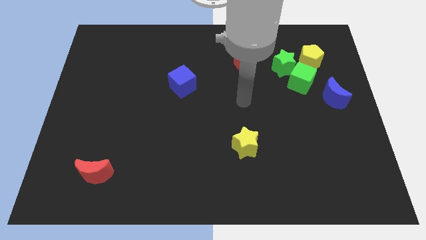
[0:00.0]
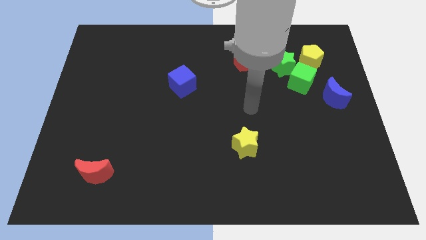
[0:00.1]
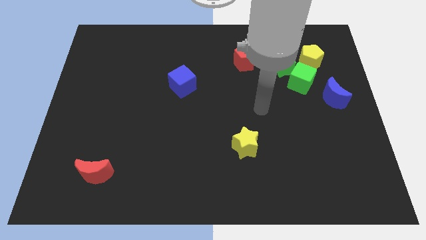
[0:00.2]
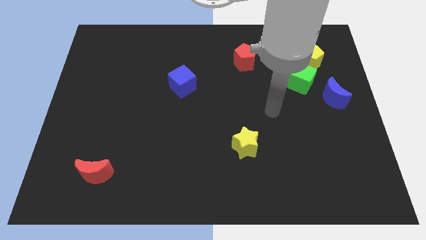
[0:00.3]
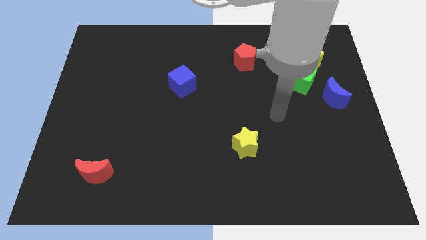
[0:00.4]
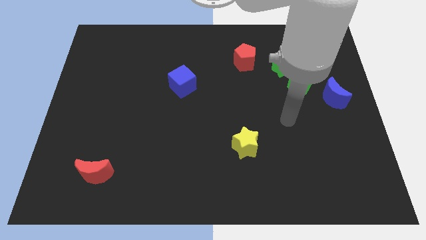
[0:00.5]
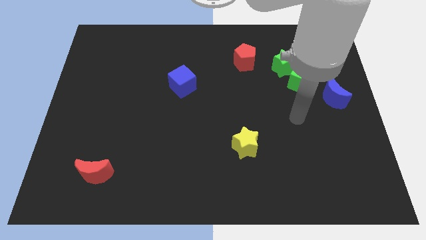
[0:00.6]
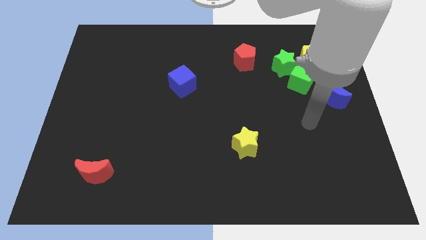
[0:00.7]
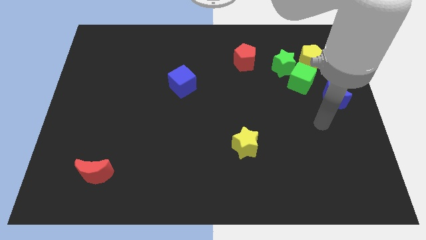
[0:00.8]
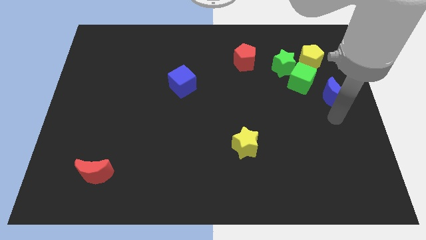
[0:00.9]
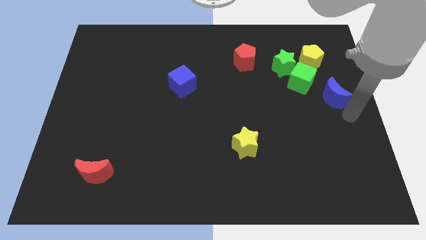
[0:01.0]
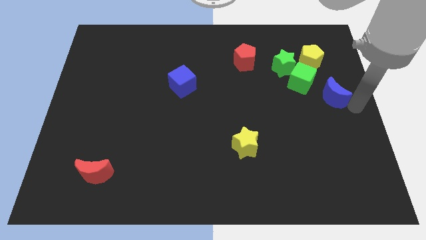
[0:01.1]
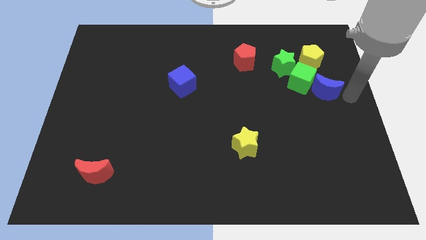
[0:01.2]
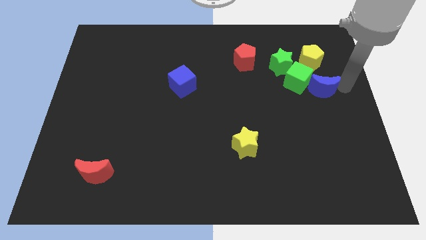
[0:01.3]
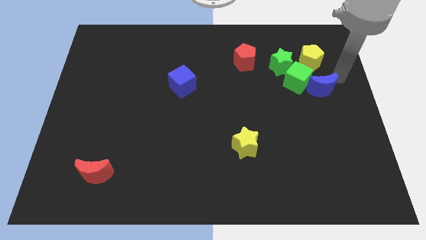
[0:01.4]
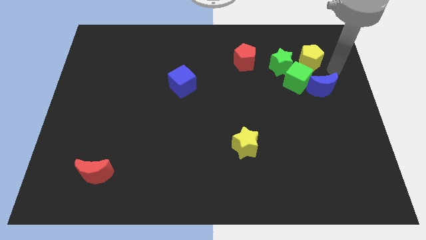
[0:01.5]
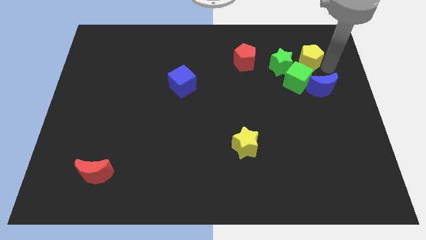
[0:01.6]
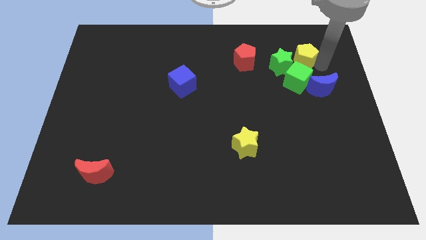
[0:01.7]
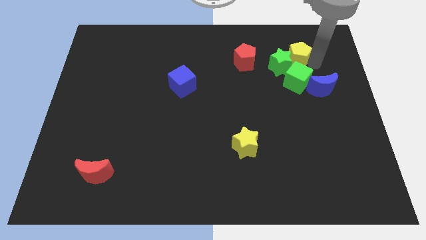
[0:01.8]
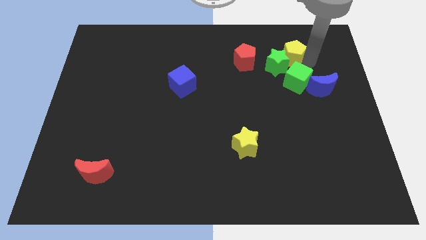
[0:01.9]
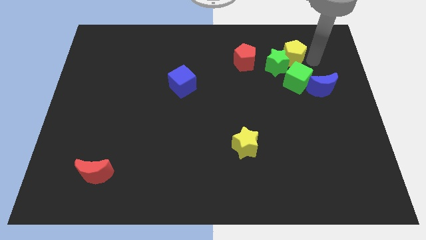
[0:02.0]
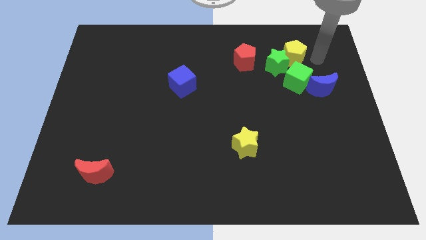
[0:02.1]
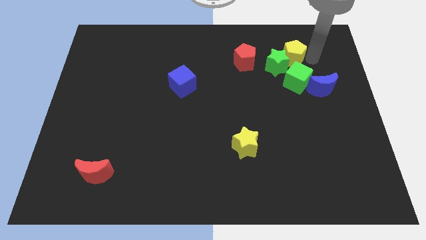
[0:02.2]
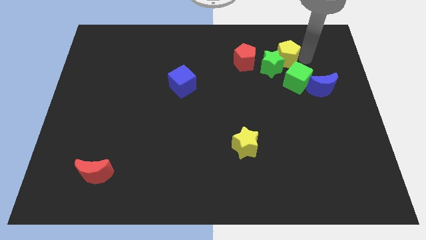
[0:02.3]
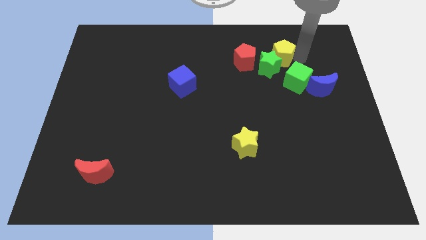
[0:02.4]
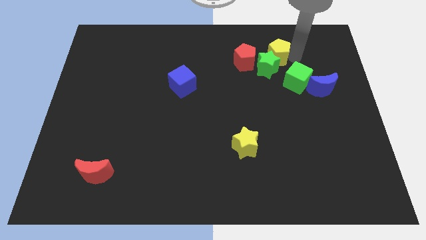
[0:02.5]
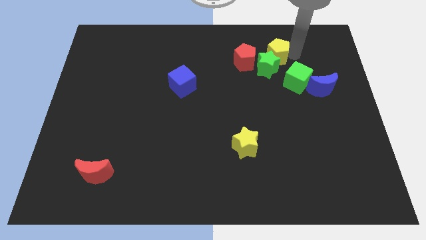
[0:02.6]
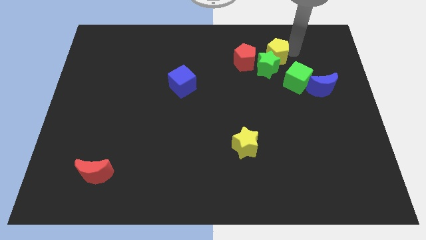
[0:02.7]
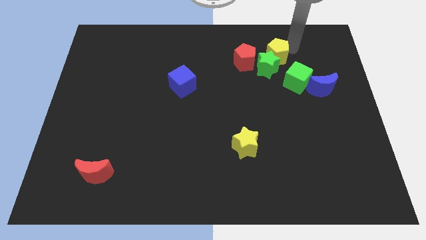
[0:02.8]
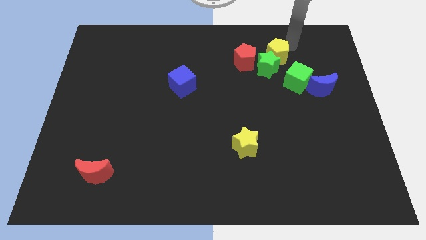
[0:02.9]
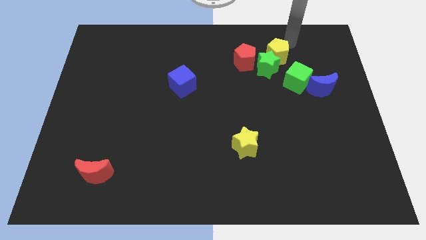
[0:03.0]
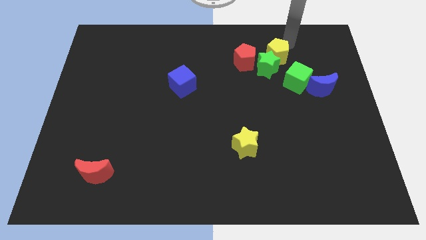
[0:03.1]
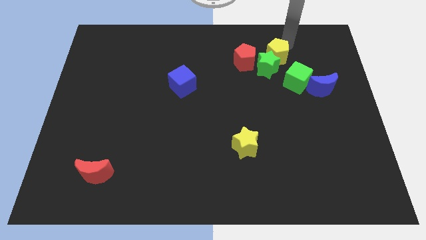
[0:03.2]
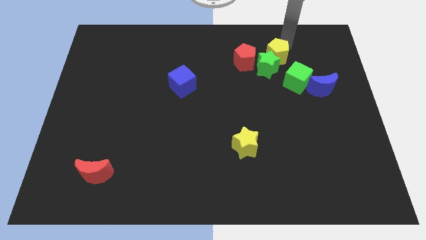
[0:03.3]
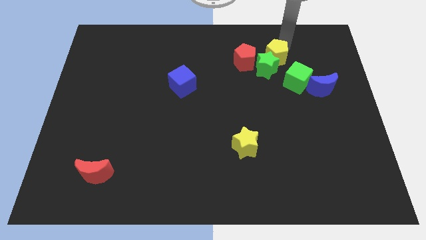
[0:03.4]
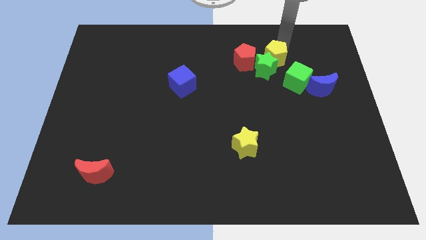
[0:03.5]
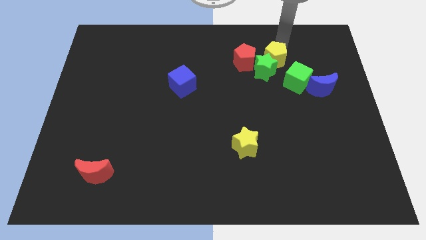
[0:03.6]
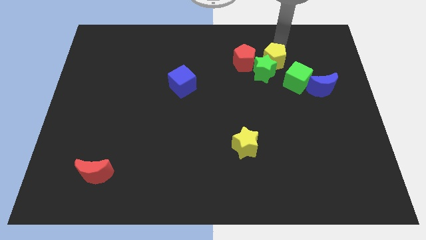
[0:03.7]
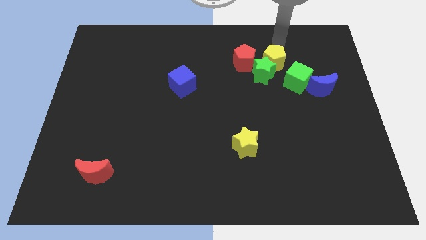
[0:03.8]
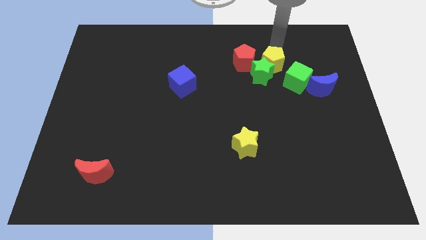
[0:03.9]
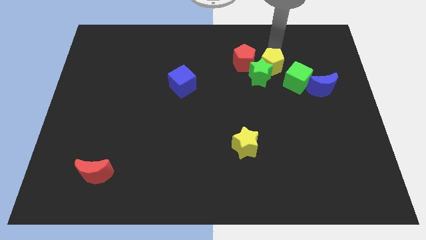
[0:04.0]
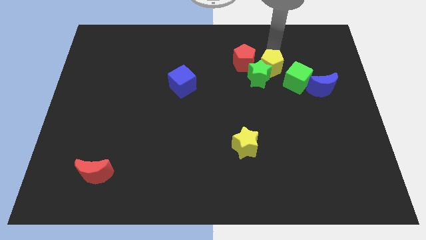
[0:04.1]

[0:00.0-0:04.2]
slightly move the yellow pentagon downwards and to the left diagonally

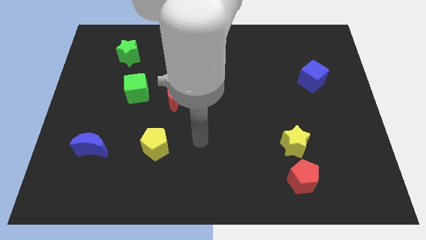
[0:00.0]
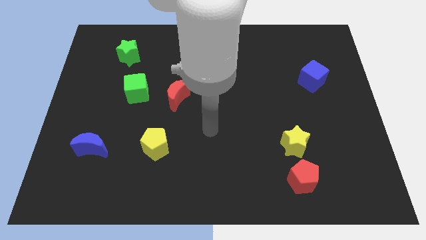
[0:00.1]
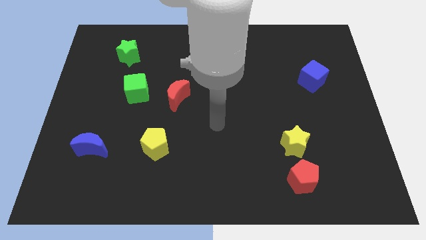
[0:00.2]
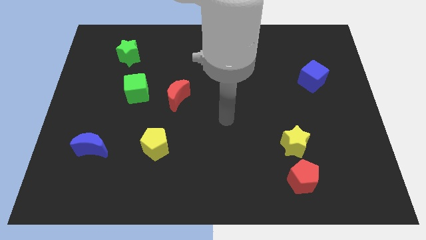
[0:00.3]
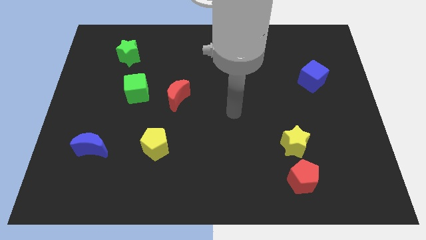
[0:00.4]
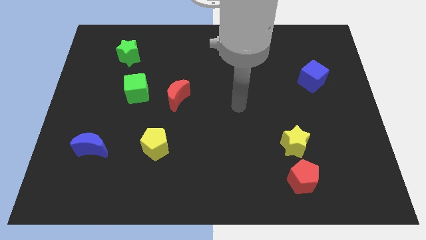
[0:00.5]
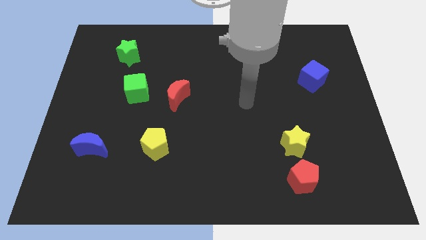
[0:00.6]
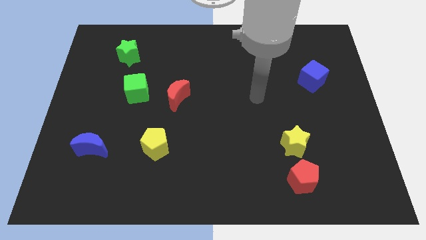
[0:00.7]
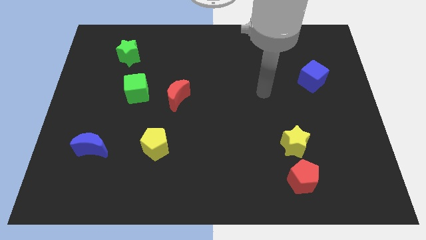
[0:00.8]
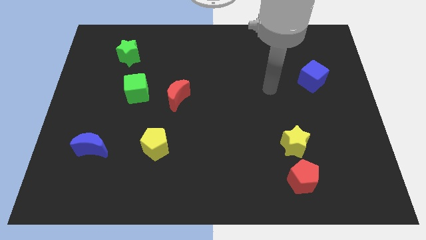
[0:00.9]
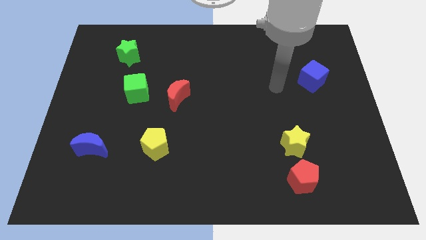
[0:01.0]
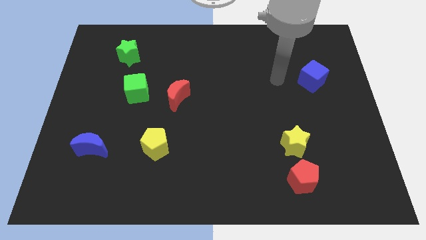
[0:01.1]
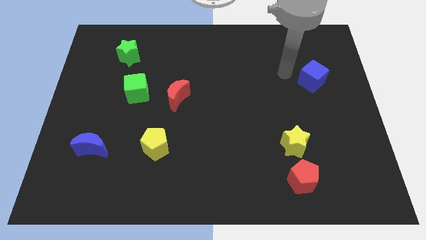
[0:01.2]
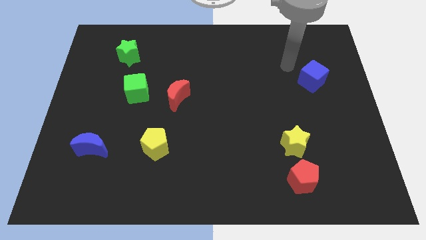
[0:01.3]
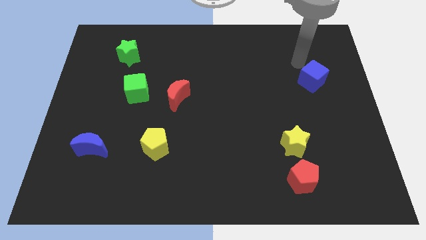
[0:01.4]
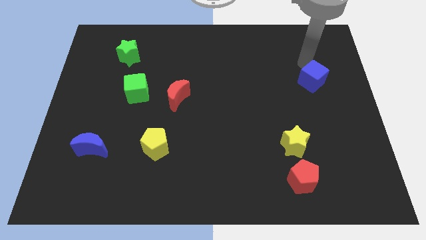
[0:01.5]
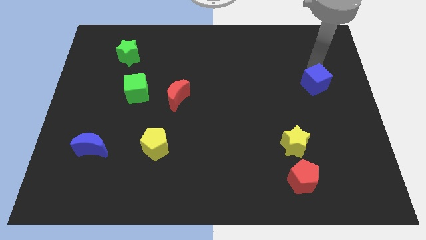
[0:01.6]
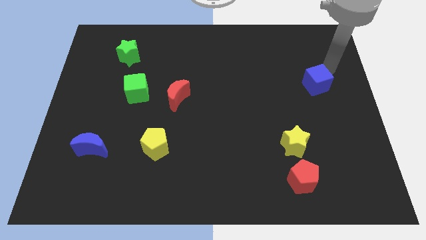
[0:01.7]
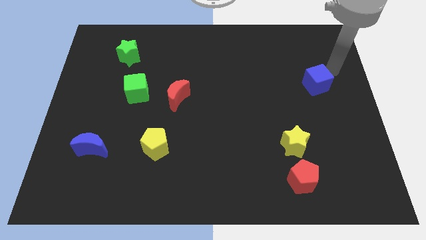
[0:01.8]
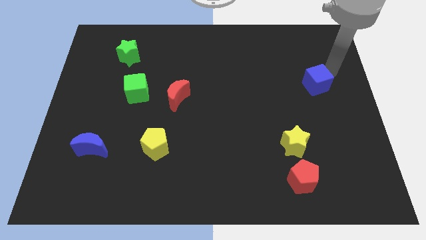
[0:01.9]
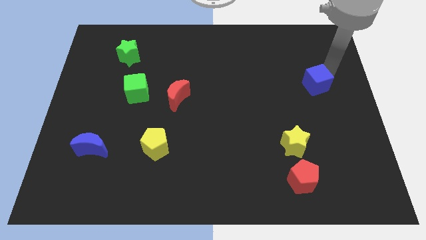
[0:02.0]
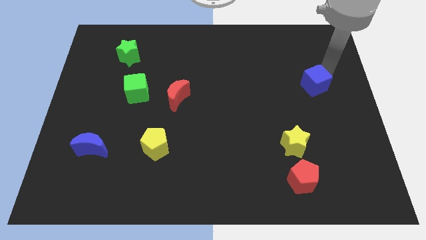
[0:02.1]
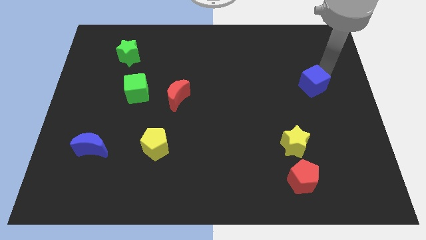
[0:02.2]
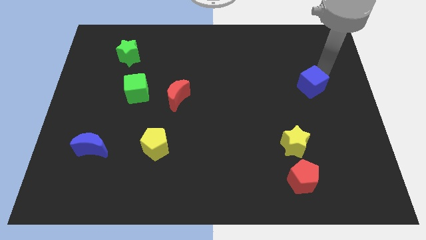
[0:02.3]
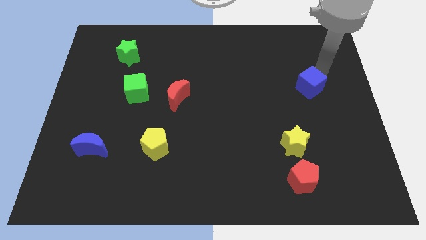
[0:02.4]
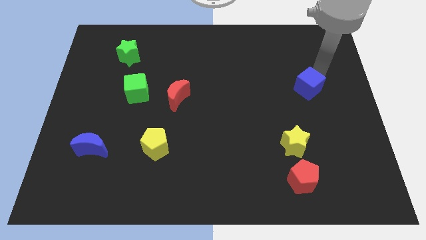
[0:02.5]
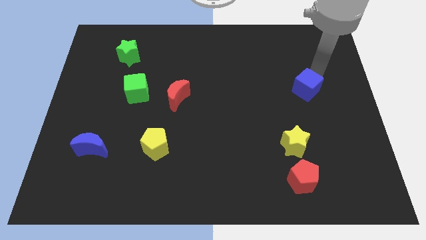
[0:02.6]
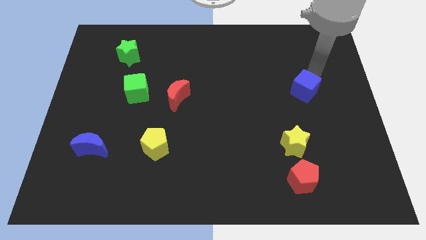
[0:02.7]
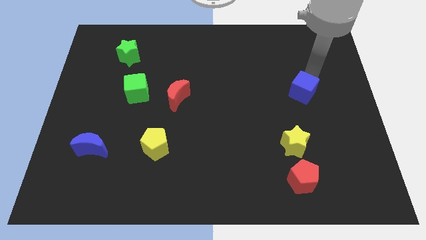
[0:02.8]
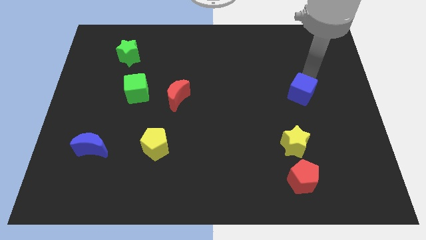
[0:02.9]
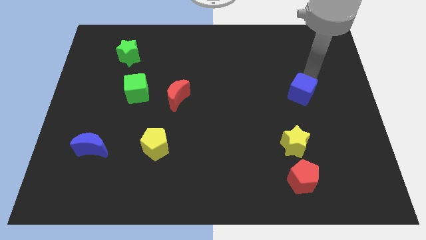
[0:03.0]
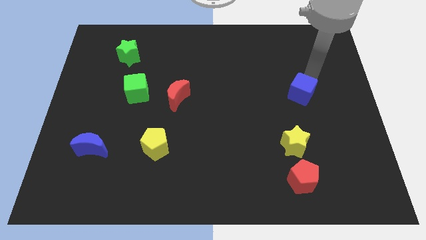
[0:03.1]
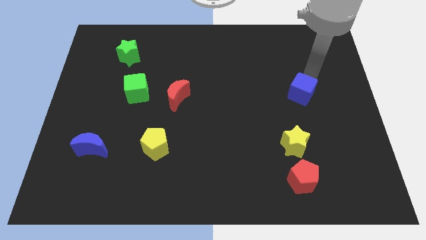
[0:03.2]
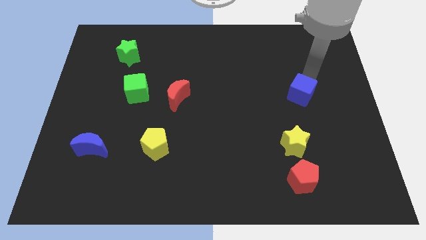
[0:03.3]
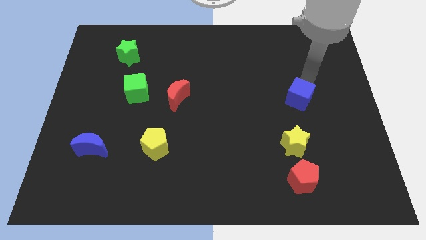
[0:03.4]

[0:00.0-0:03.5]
push the blue cube downwards and left a little bit

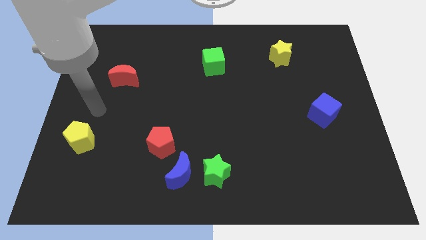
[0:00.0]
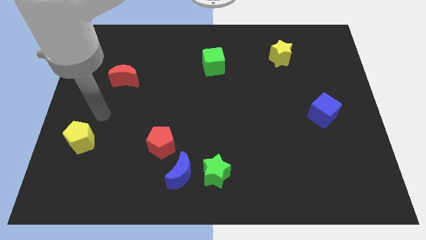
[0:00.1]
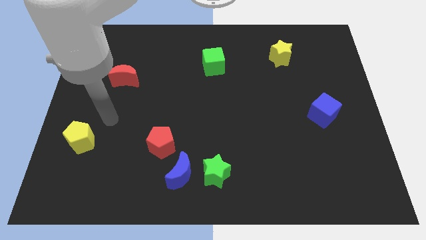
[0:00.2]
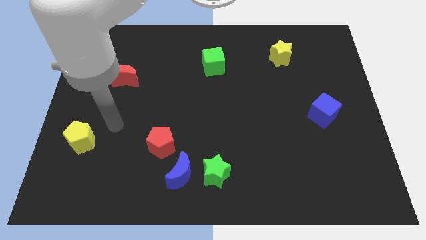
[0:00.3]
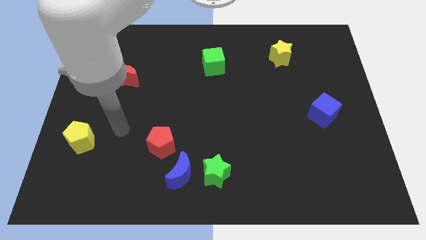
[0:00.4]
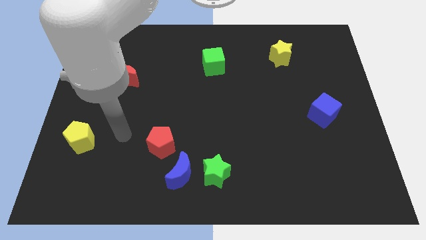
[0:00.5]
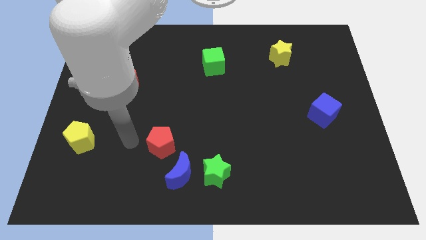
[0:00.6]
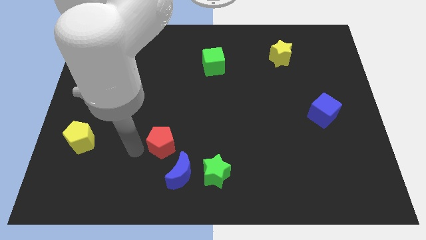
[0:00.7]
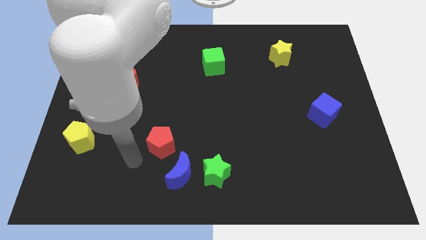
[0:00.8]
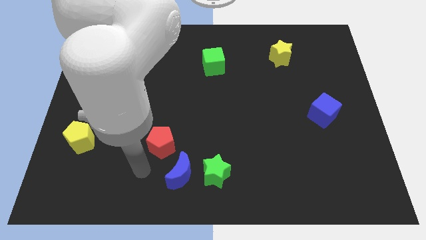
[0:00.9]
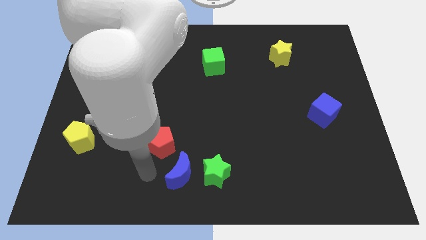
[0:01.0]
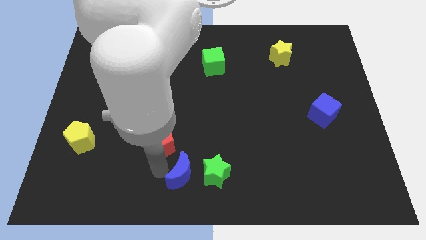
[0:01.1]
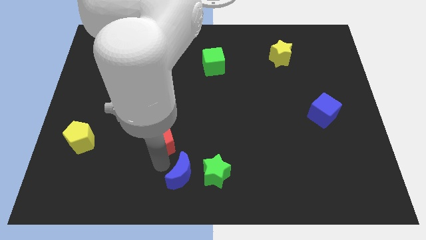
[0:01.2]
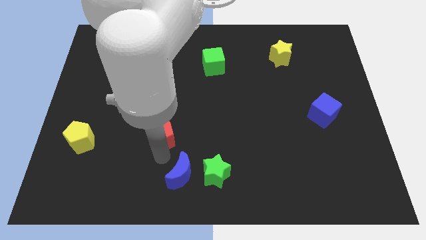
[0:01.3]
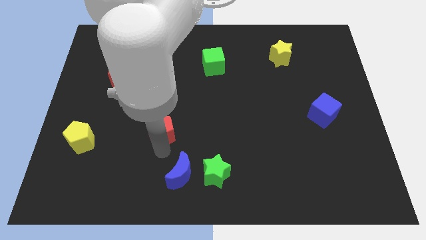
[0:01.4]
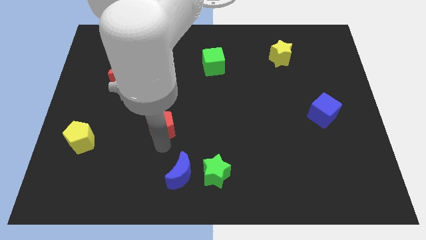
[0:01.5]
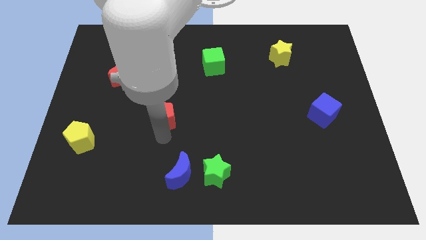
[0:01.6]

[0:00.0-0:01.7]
slide the red pentagon a bit up
